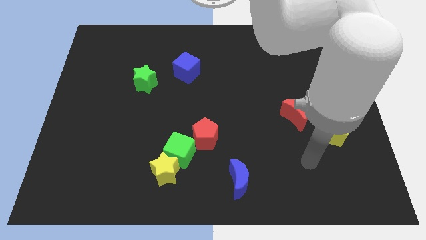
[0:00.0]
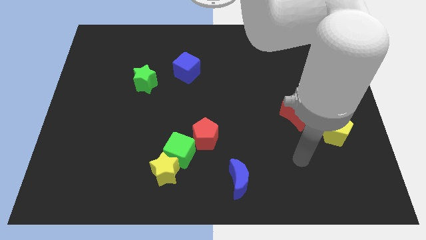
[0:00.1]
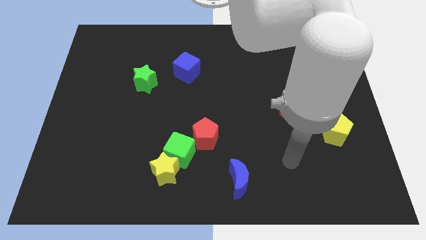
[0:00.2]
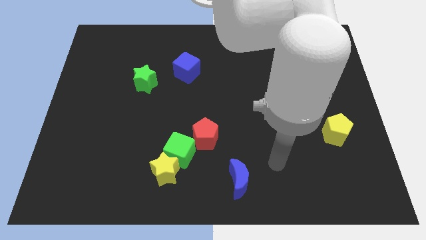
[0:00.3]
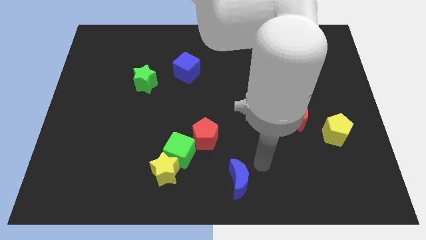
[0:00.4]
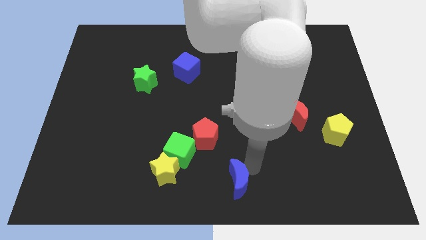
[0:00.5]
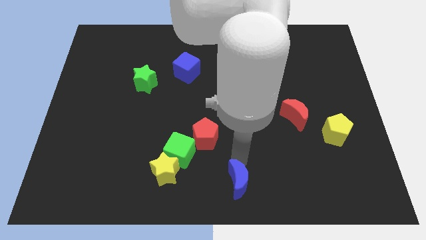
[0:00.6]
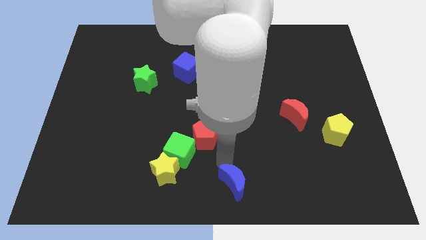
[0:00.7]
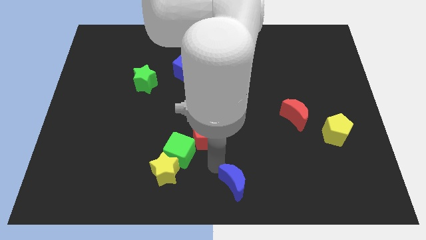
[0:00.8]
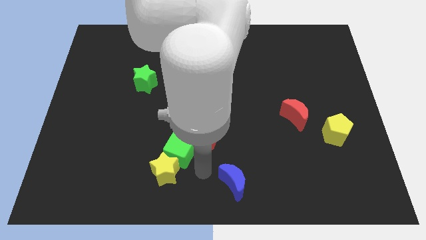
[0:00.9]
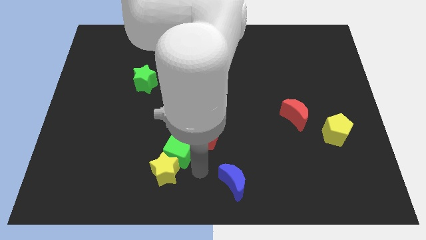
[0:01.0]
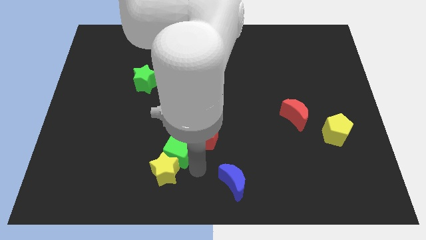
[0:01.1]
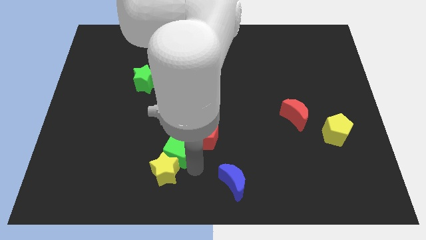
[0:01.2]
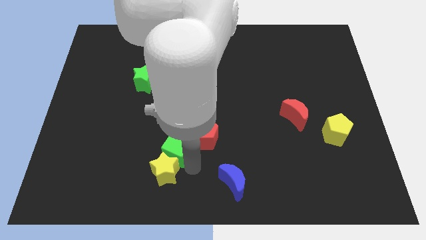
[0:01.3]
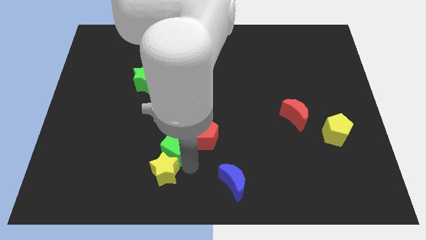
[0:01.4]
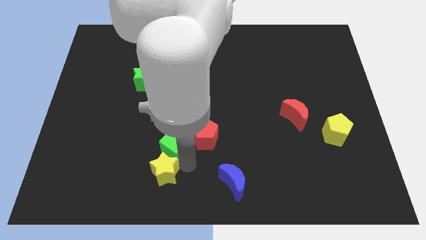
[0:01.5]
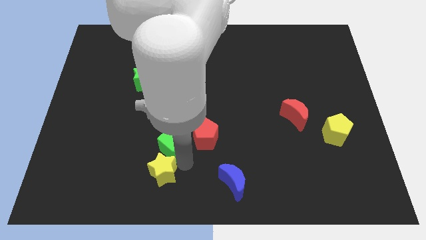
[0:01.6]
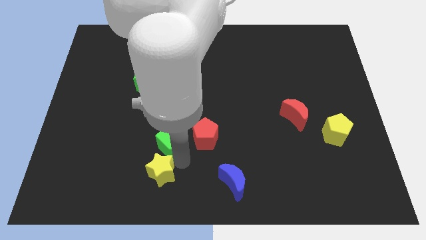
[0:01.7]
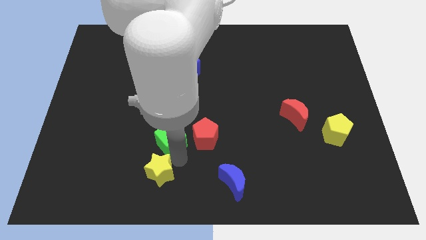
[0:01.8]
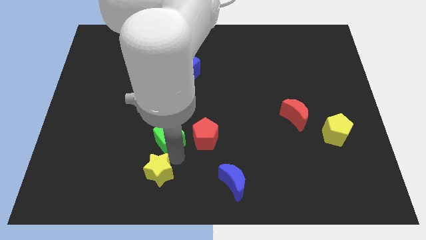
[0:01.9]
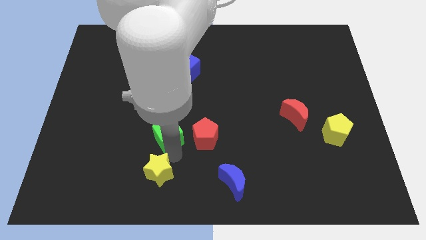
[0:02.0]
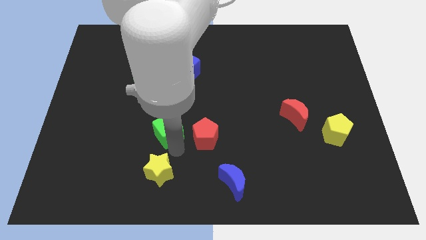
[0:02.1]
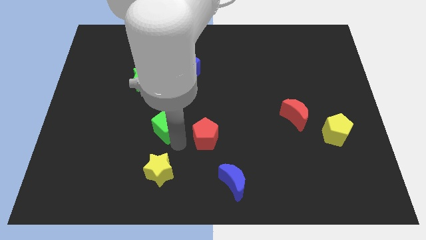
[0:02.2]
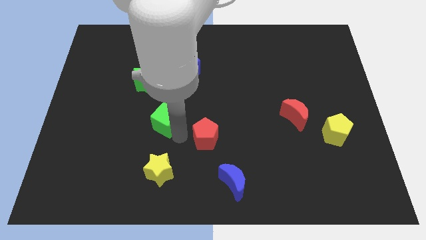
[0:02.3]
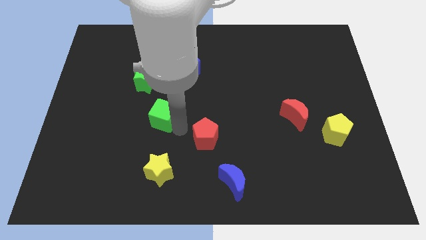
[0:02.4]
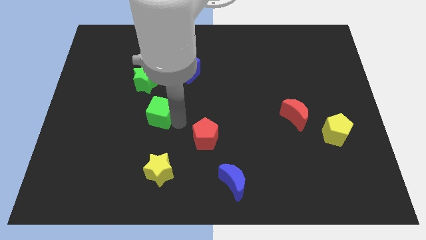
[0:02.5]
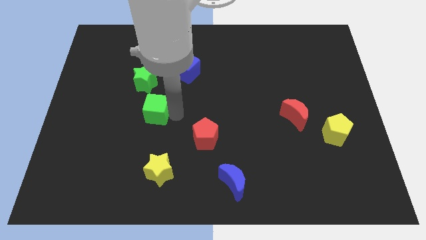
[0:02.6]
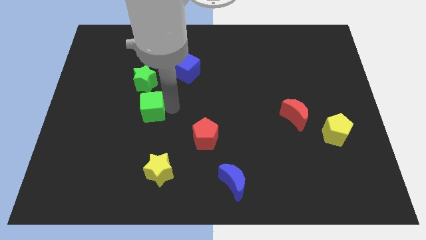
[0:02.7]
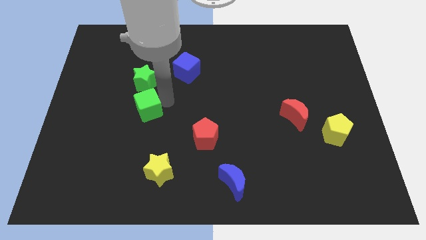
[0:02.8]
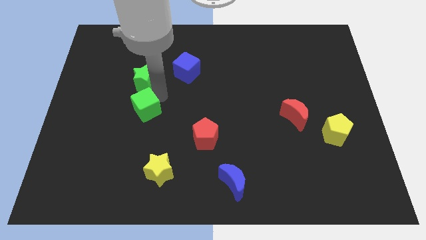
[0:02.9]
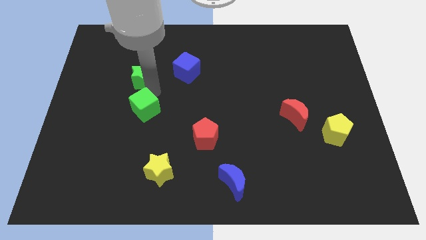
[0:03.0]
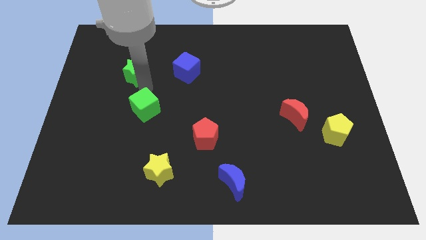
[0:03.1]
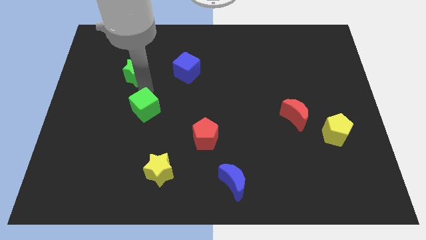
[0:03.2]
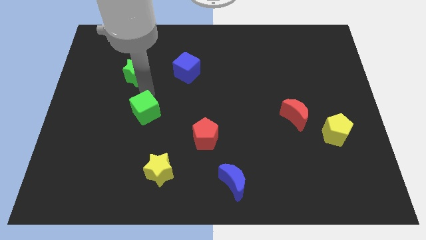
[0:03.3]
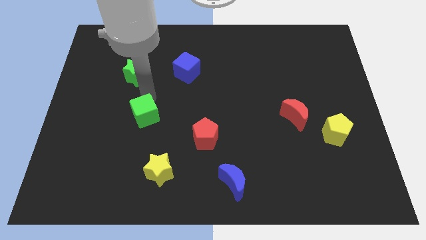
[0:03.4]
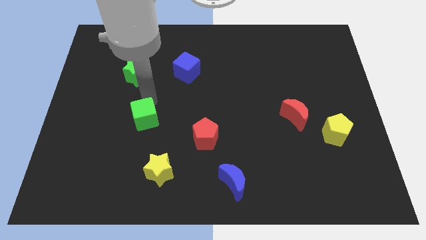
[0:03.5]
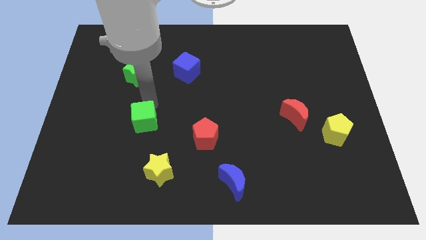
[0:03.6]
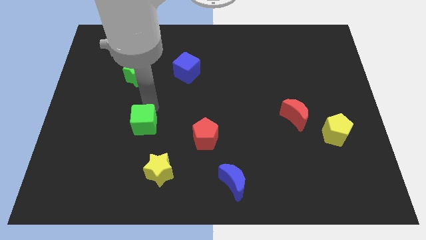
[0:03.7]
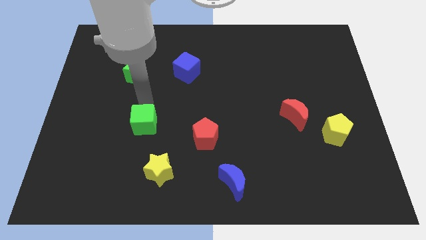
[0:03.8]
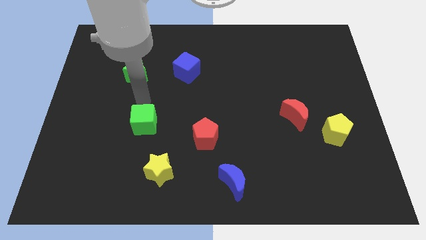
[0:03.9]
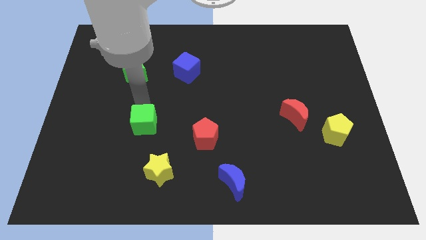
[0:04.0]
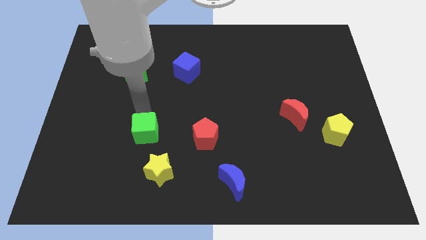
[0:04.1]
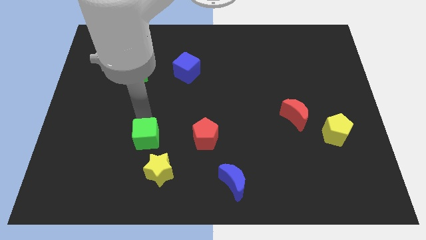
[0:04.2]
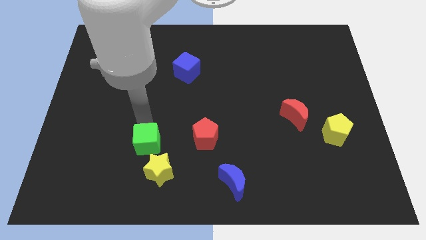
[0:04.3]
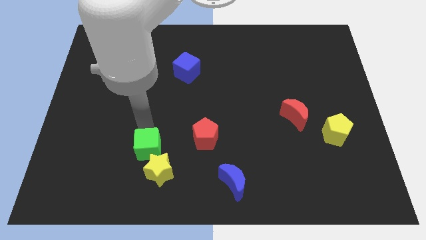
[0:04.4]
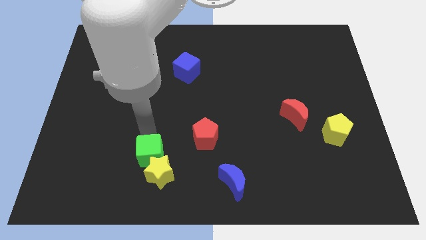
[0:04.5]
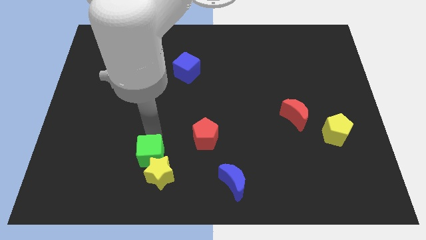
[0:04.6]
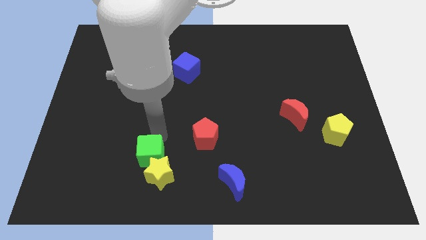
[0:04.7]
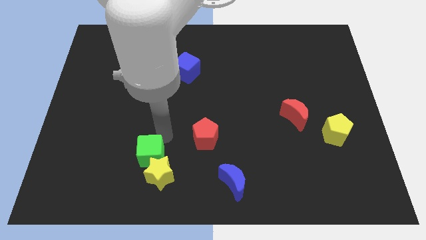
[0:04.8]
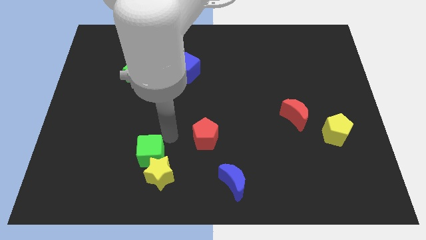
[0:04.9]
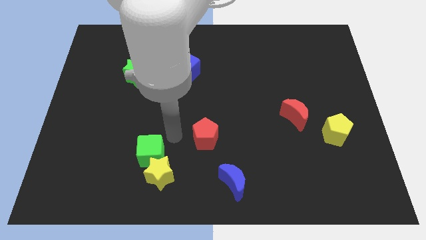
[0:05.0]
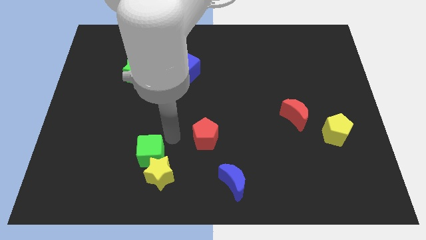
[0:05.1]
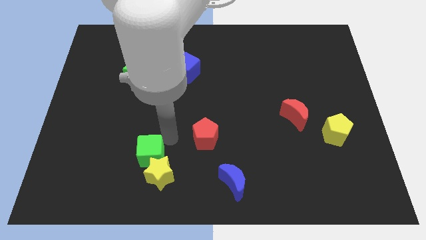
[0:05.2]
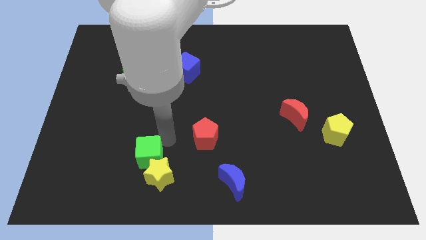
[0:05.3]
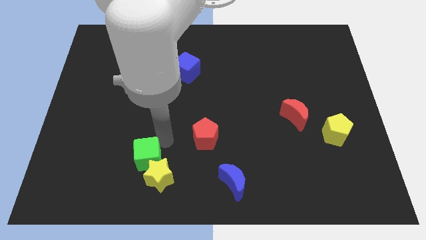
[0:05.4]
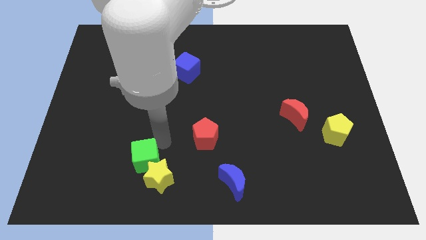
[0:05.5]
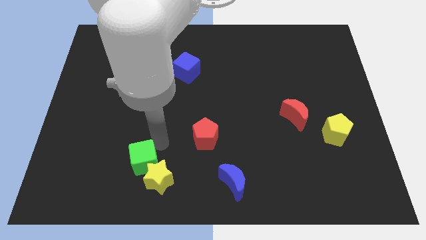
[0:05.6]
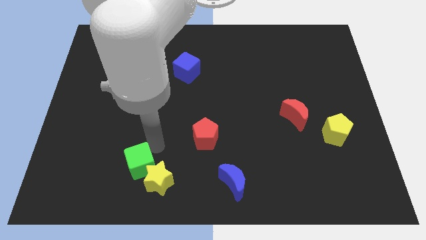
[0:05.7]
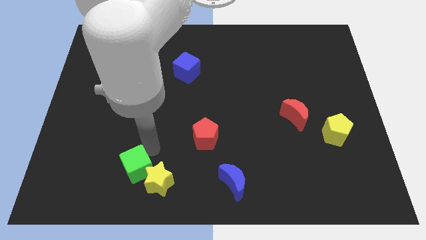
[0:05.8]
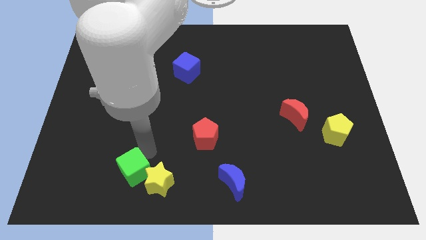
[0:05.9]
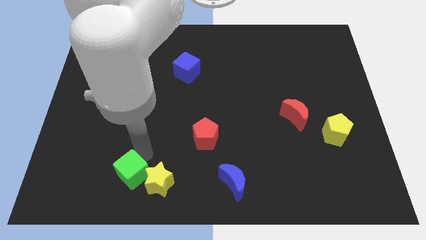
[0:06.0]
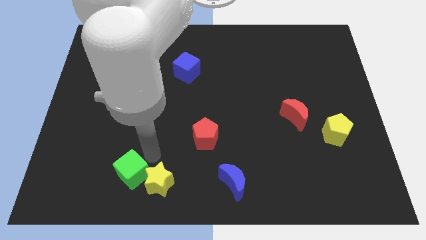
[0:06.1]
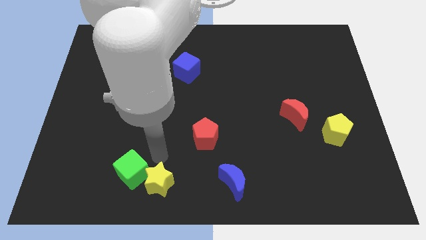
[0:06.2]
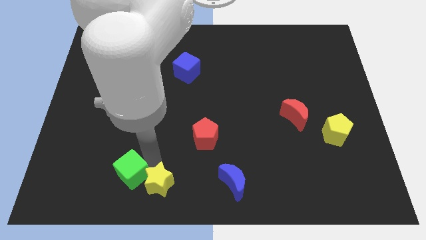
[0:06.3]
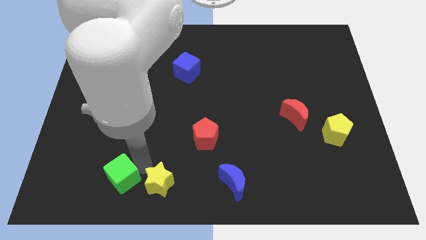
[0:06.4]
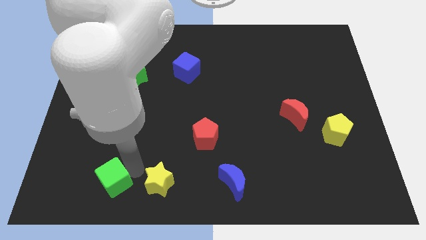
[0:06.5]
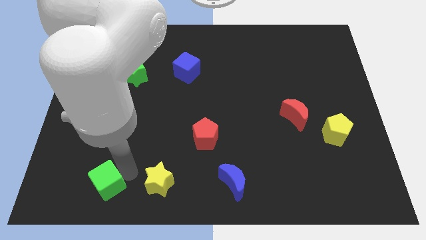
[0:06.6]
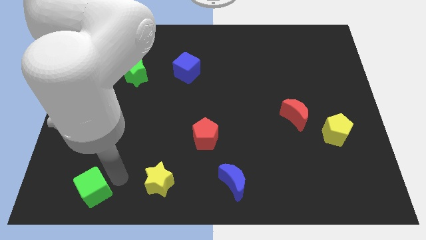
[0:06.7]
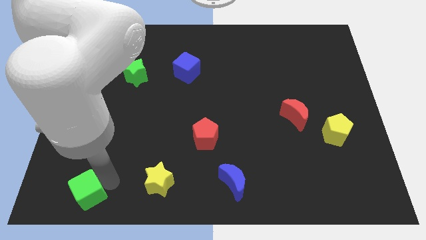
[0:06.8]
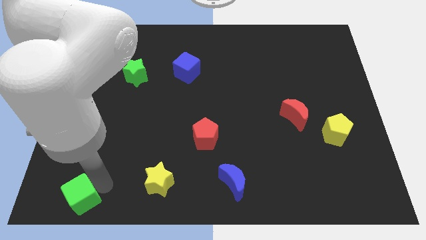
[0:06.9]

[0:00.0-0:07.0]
slide the green cube to the bottom left corner

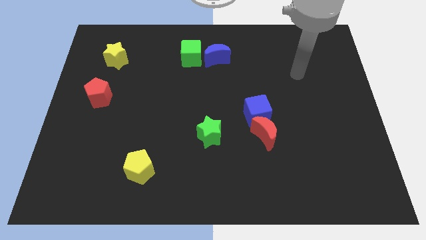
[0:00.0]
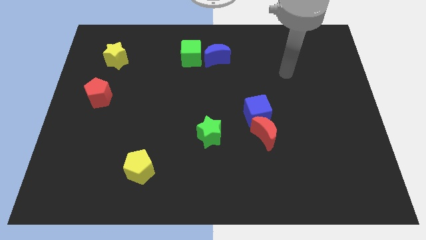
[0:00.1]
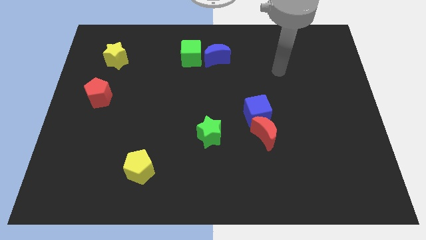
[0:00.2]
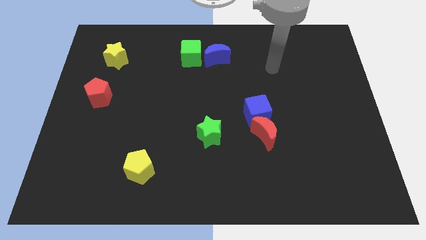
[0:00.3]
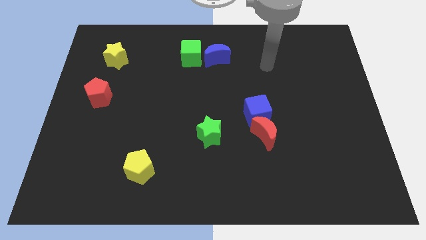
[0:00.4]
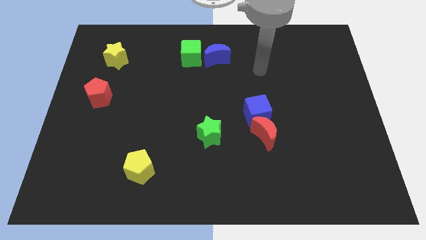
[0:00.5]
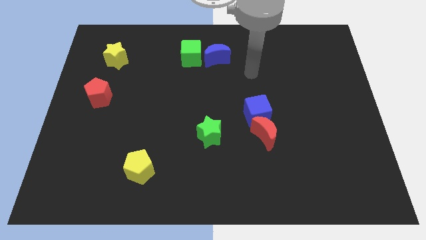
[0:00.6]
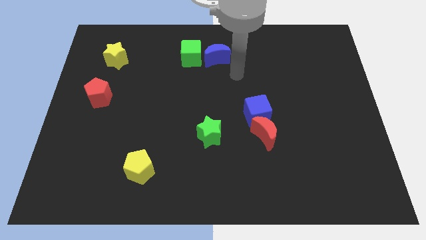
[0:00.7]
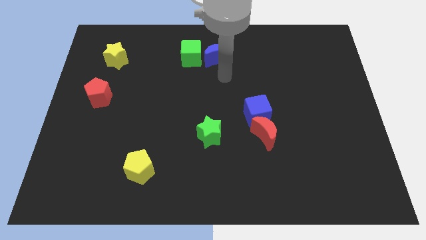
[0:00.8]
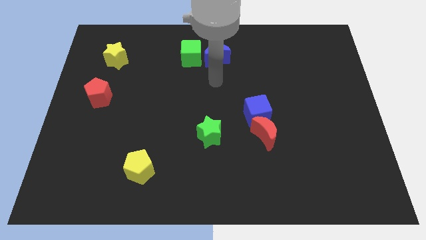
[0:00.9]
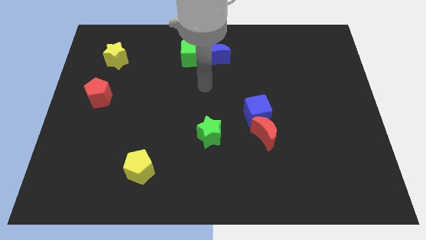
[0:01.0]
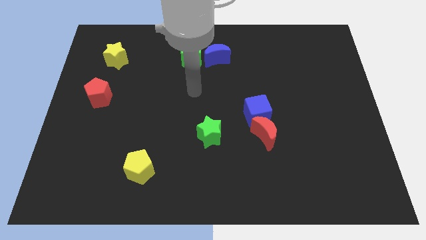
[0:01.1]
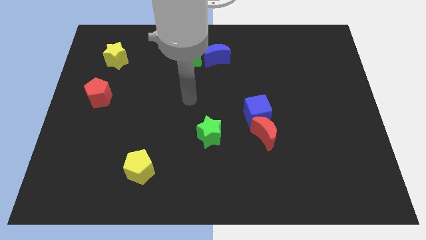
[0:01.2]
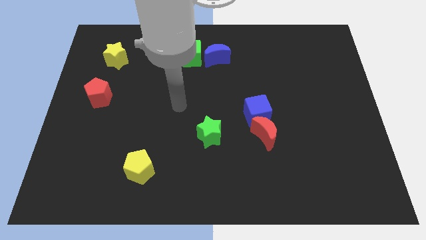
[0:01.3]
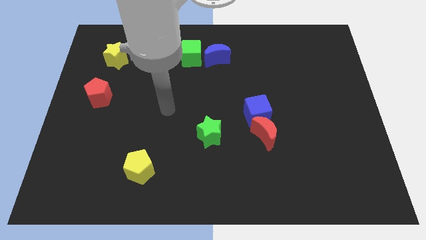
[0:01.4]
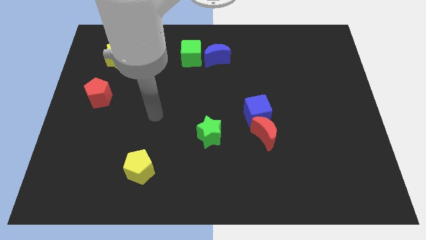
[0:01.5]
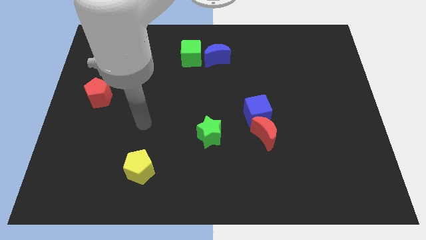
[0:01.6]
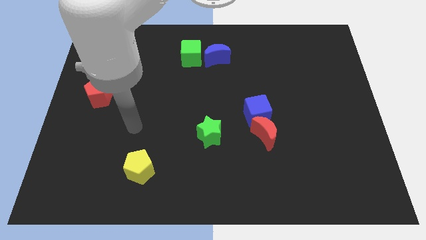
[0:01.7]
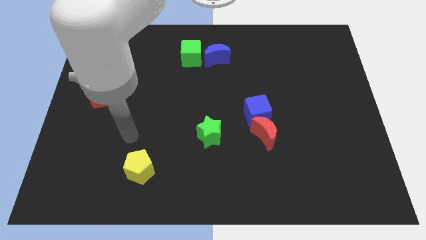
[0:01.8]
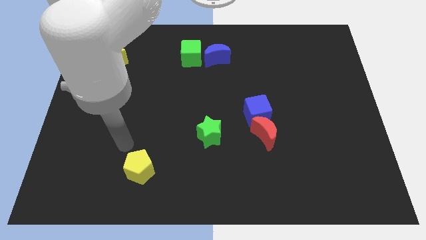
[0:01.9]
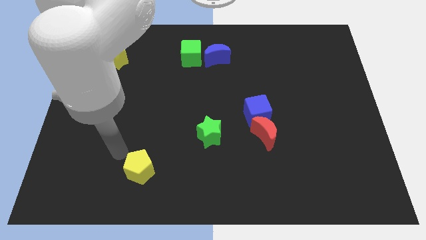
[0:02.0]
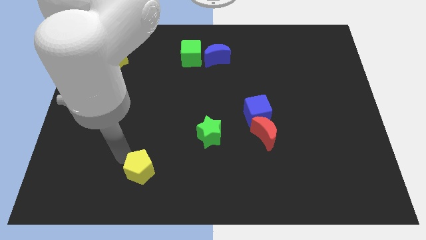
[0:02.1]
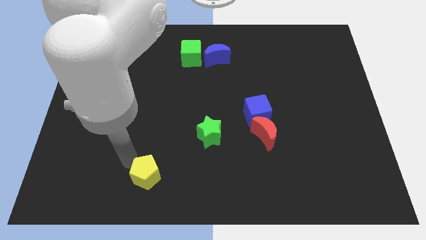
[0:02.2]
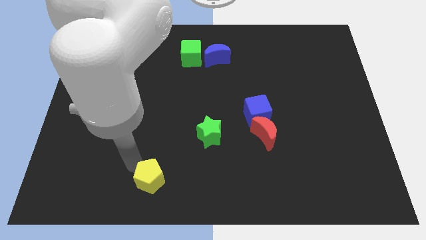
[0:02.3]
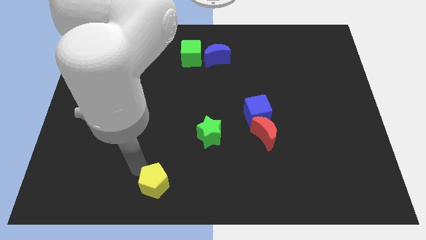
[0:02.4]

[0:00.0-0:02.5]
move the yellow pentagon to the bottom
